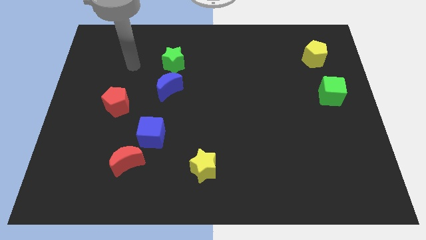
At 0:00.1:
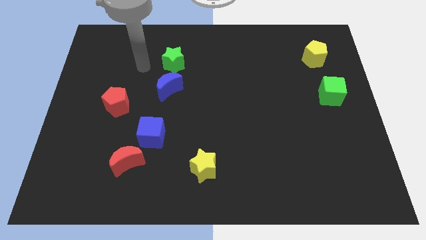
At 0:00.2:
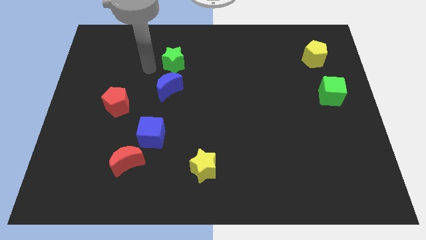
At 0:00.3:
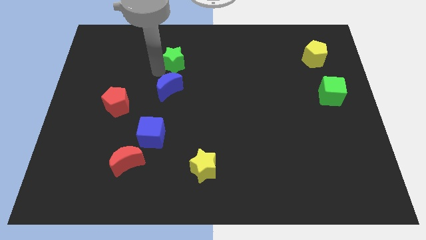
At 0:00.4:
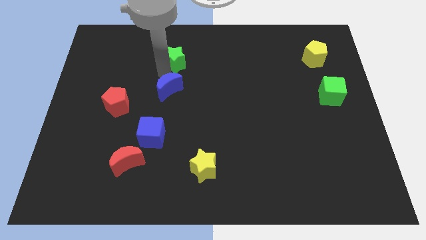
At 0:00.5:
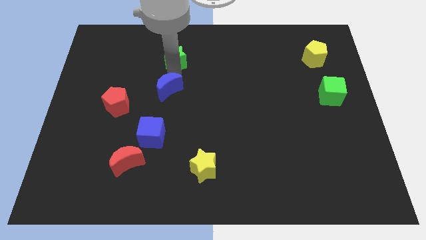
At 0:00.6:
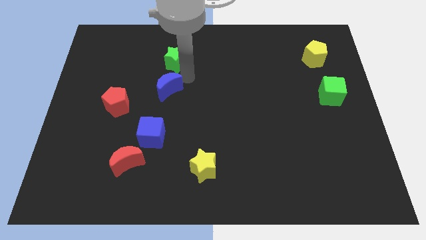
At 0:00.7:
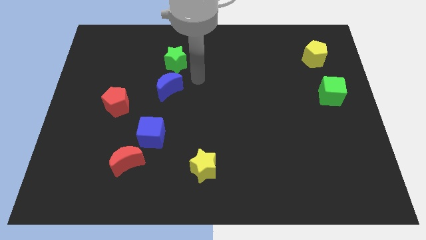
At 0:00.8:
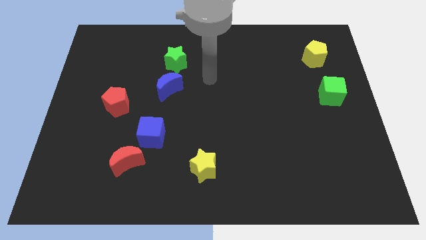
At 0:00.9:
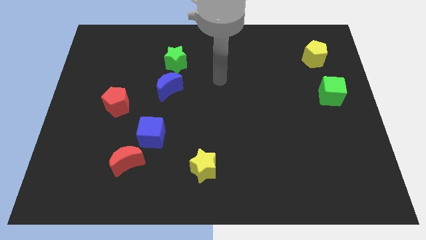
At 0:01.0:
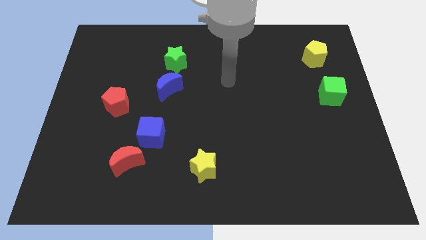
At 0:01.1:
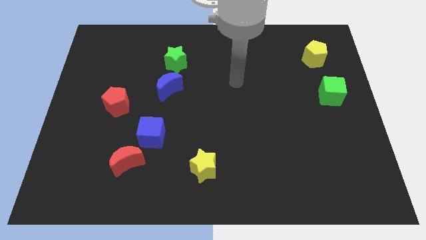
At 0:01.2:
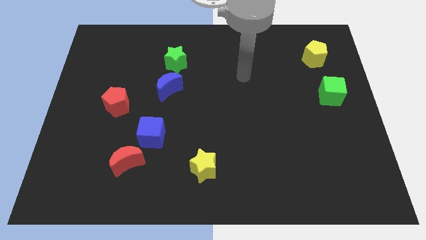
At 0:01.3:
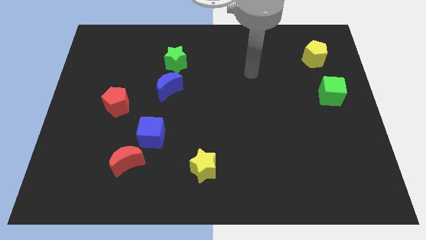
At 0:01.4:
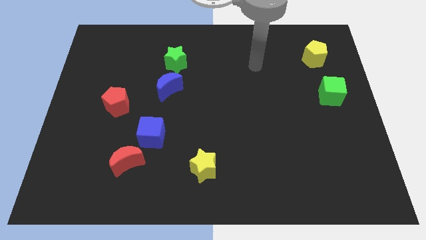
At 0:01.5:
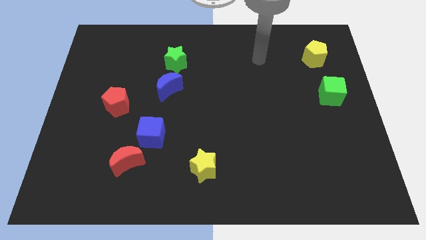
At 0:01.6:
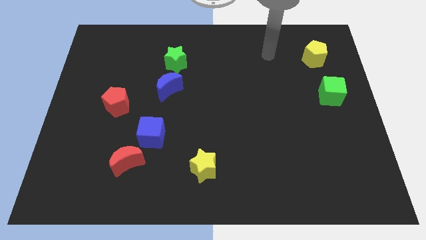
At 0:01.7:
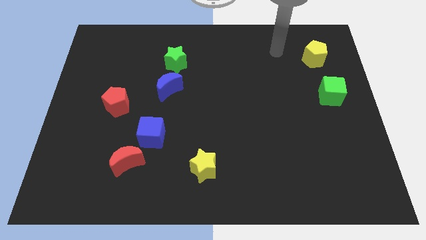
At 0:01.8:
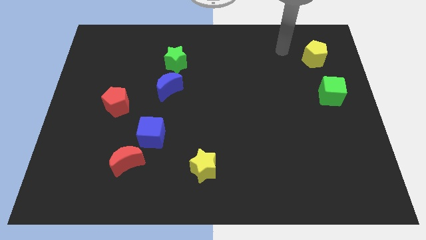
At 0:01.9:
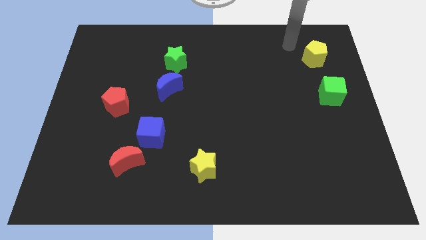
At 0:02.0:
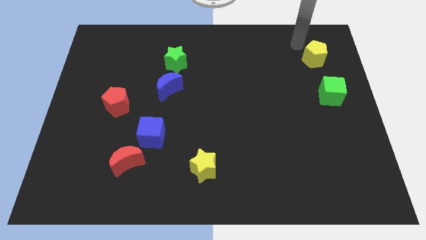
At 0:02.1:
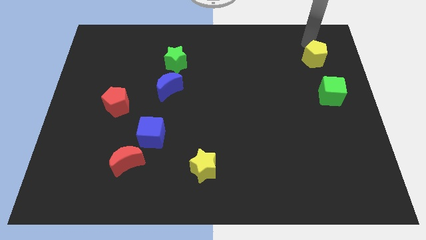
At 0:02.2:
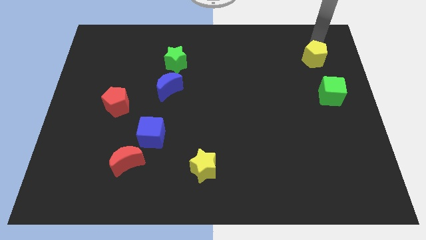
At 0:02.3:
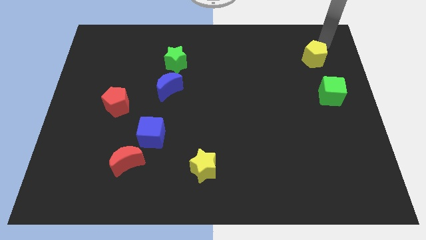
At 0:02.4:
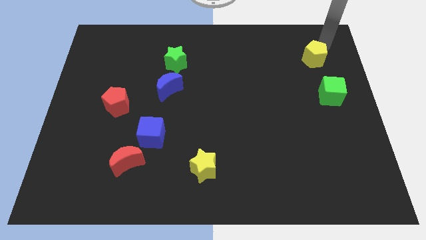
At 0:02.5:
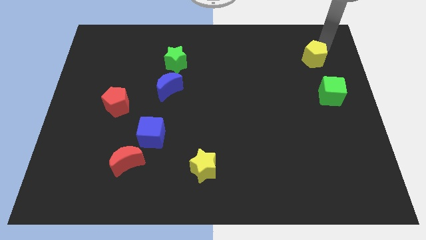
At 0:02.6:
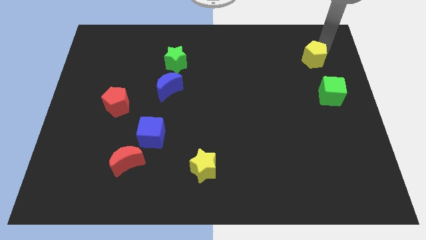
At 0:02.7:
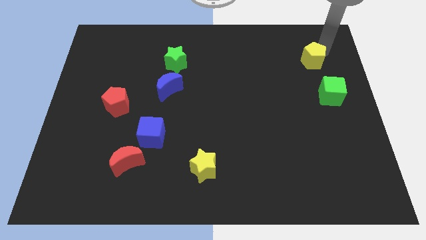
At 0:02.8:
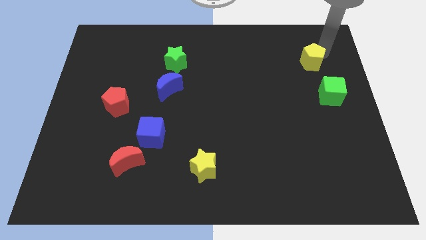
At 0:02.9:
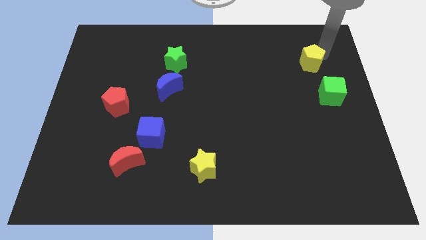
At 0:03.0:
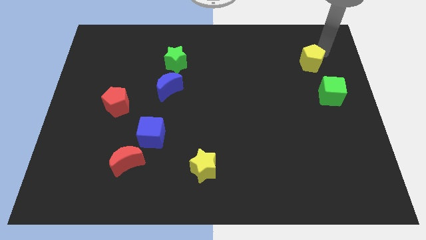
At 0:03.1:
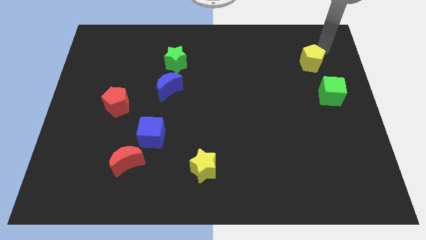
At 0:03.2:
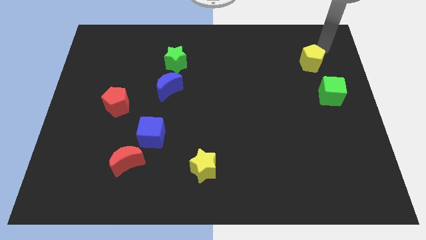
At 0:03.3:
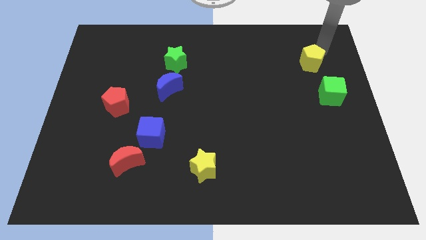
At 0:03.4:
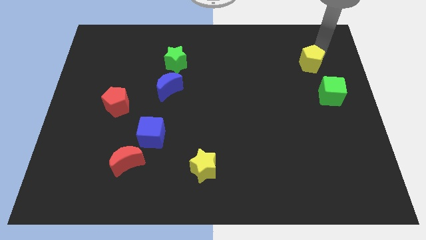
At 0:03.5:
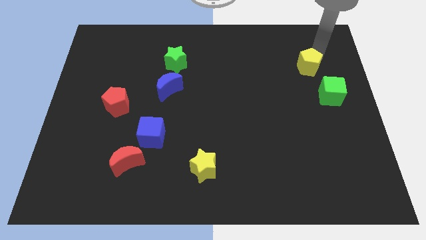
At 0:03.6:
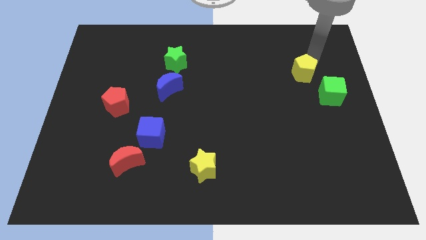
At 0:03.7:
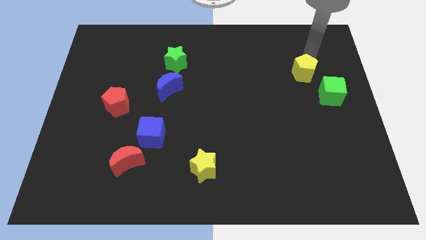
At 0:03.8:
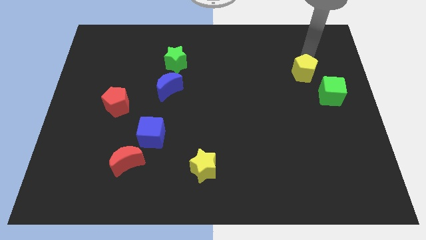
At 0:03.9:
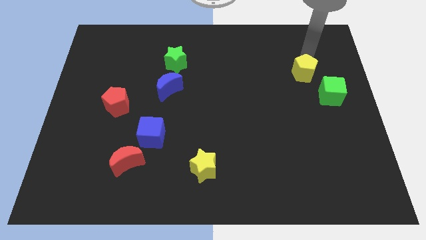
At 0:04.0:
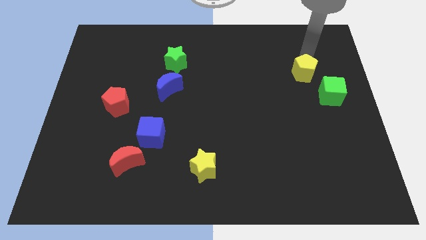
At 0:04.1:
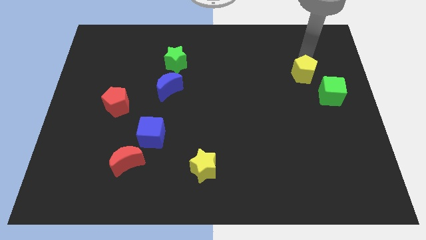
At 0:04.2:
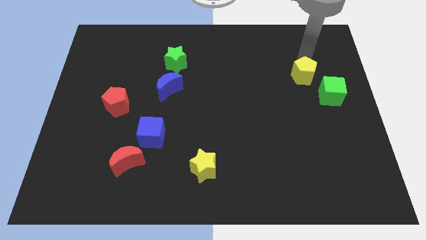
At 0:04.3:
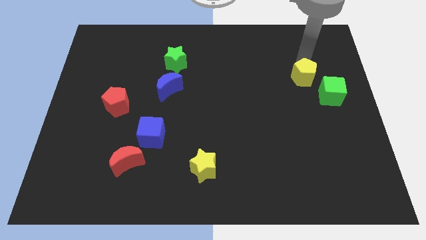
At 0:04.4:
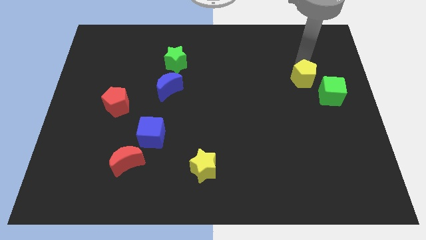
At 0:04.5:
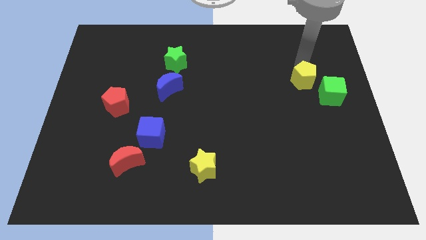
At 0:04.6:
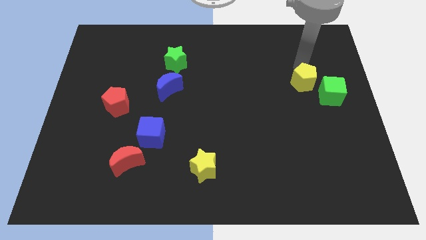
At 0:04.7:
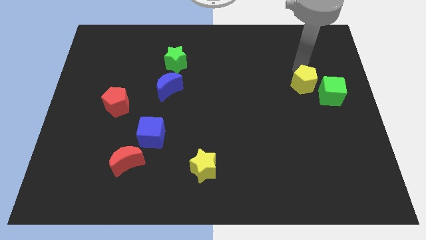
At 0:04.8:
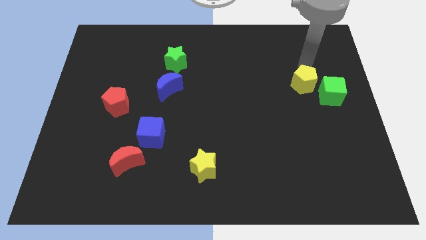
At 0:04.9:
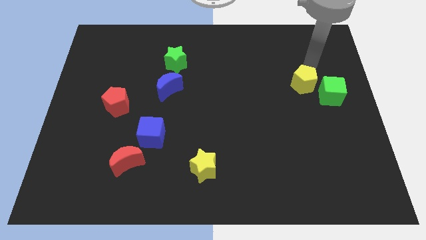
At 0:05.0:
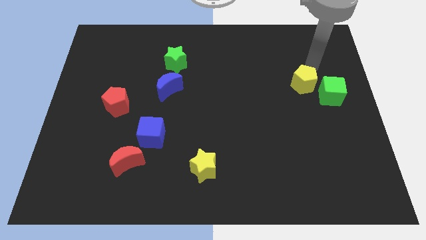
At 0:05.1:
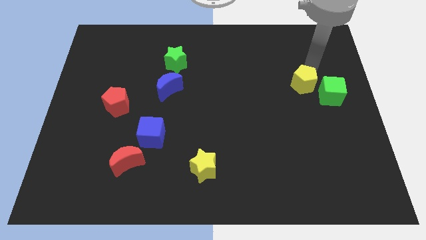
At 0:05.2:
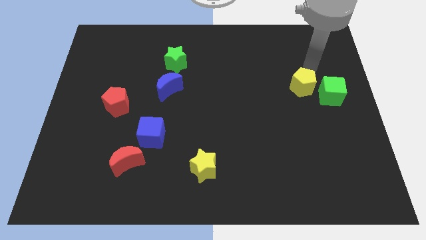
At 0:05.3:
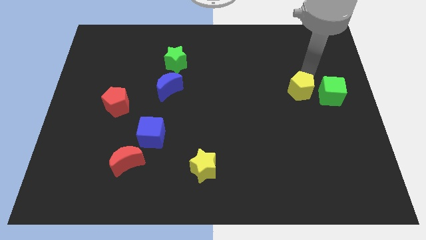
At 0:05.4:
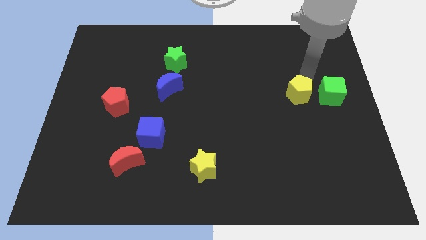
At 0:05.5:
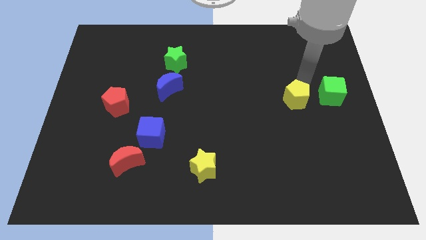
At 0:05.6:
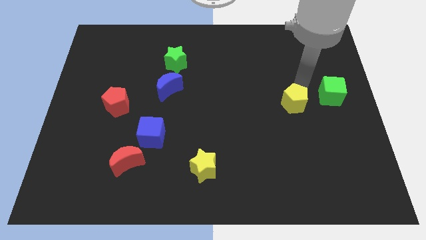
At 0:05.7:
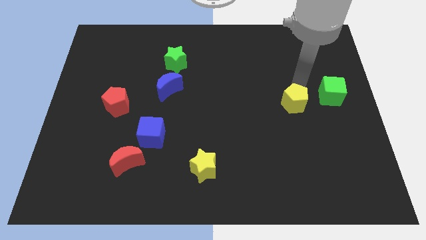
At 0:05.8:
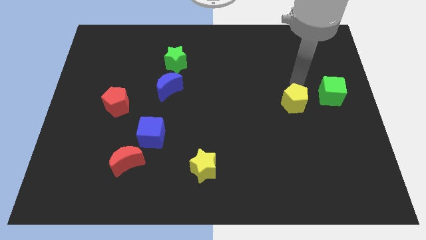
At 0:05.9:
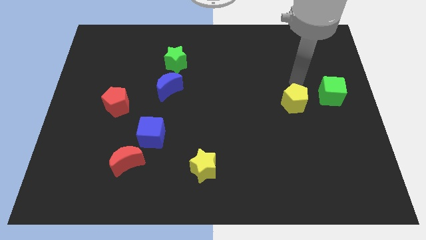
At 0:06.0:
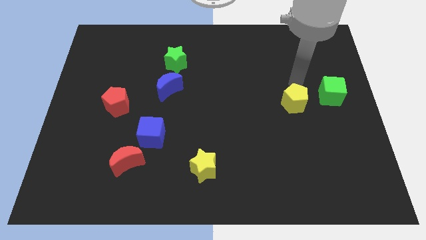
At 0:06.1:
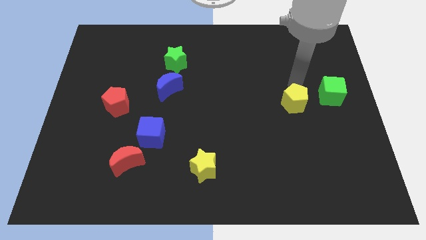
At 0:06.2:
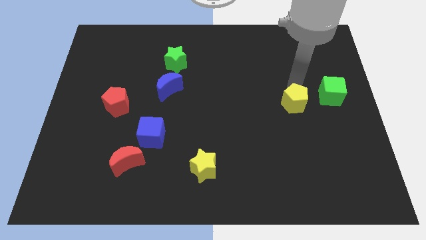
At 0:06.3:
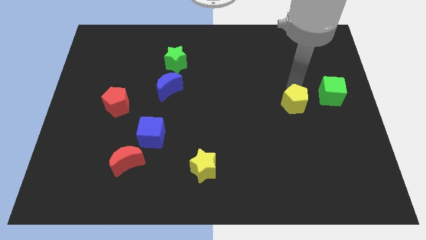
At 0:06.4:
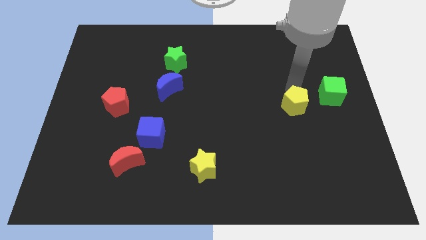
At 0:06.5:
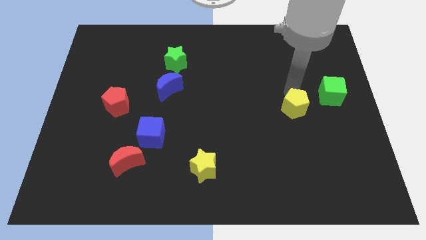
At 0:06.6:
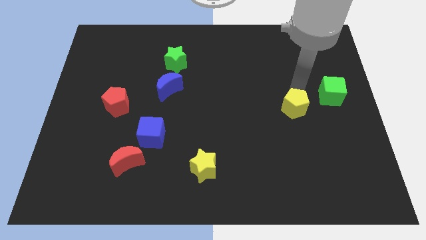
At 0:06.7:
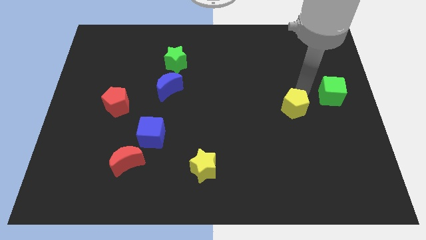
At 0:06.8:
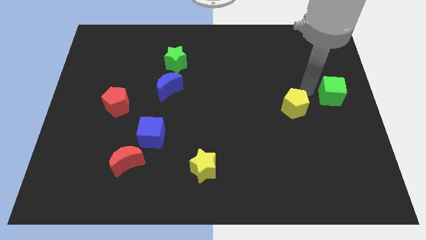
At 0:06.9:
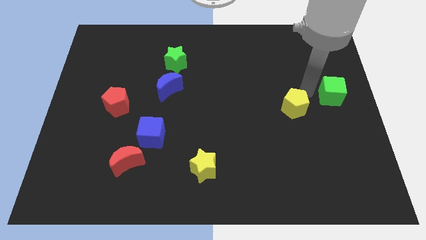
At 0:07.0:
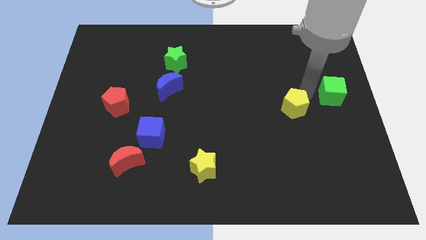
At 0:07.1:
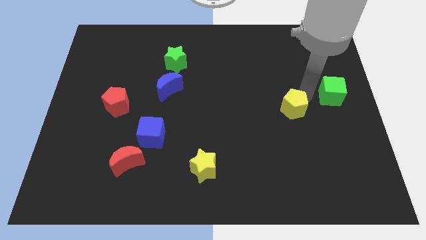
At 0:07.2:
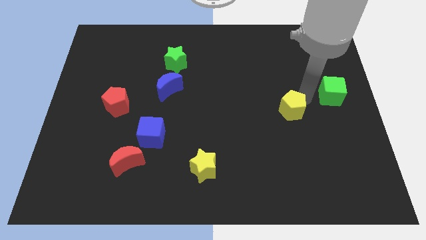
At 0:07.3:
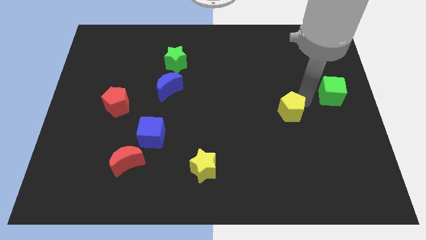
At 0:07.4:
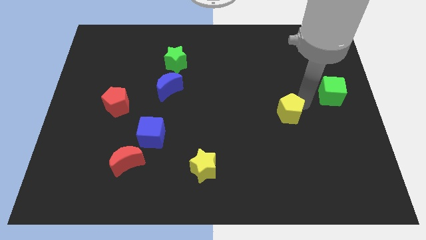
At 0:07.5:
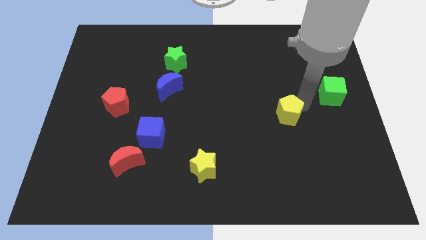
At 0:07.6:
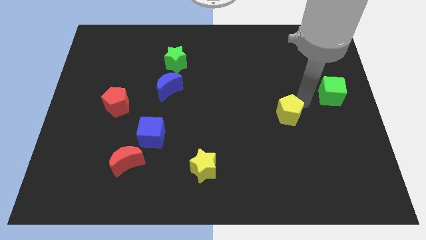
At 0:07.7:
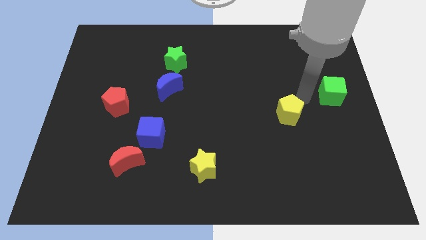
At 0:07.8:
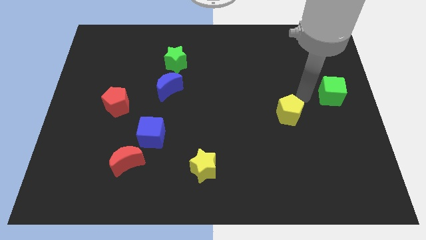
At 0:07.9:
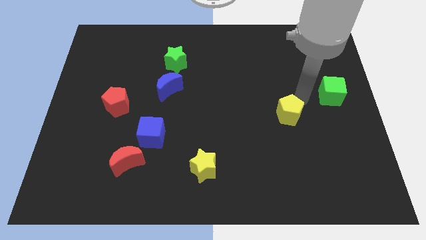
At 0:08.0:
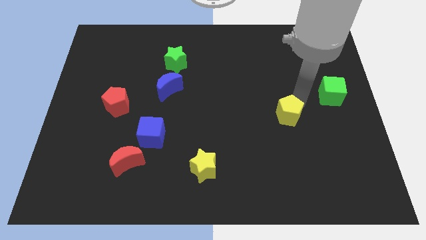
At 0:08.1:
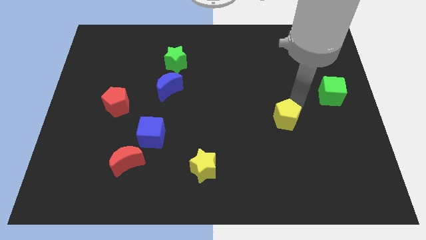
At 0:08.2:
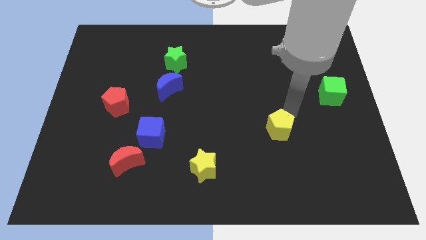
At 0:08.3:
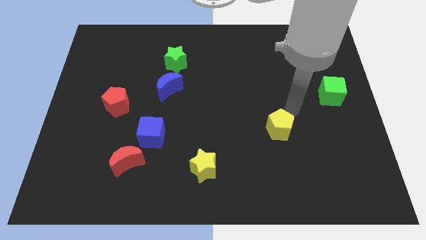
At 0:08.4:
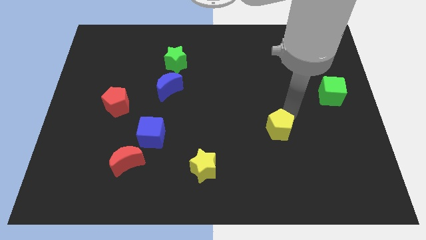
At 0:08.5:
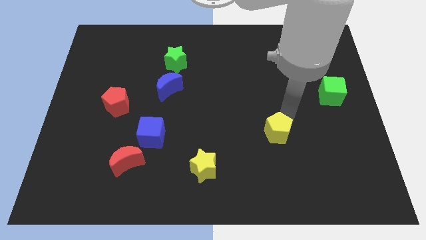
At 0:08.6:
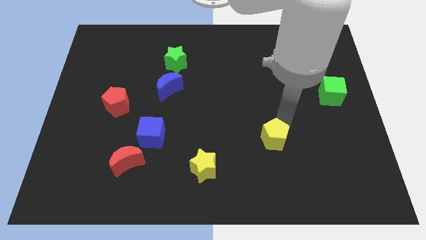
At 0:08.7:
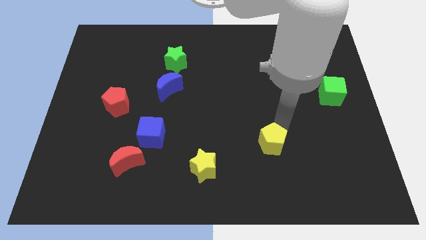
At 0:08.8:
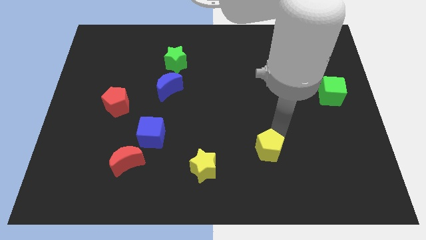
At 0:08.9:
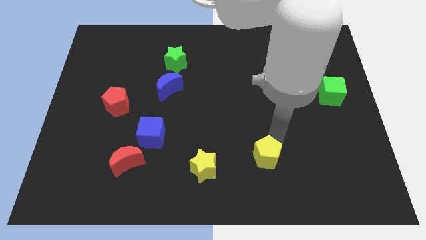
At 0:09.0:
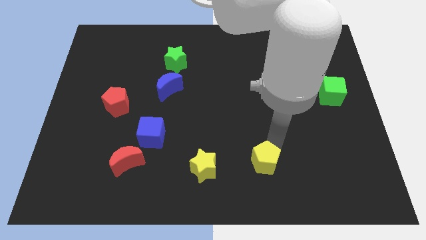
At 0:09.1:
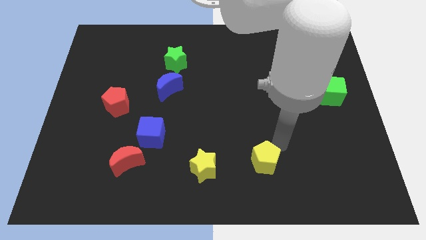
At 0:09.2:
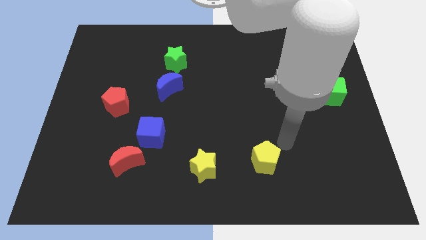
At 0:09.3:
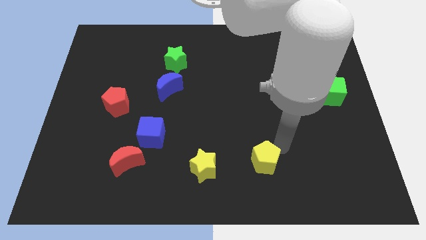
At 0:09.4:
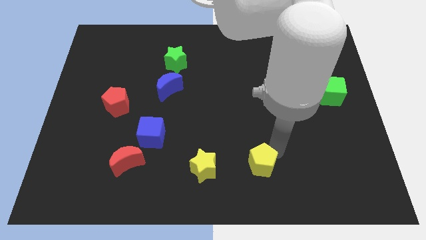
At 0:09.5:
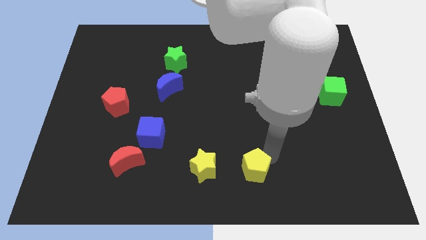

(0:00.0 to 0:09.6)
put the yellow pentagon to the bottom
